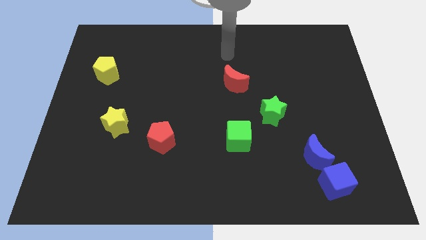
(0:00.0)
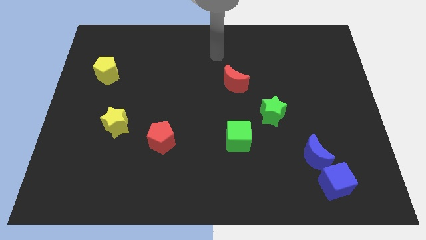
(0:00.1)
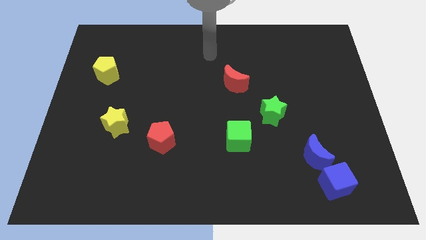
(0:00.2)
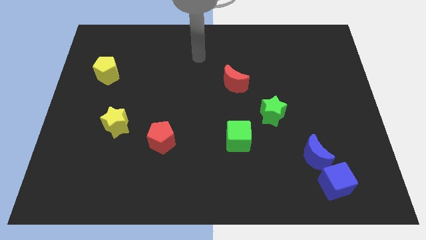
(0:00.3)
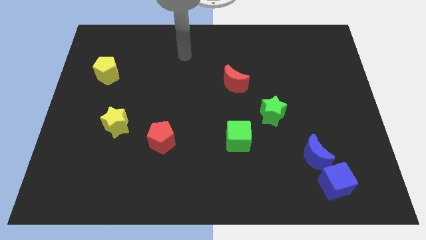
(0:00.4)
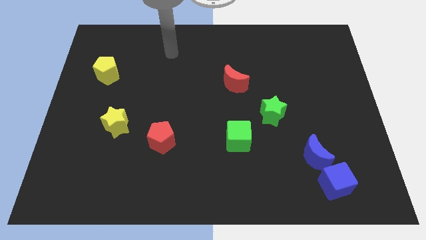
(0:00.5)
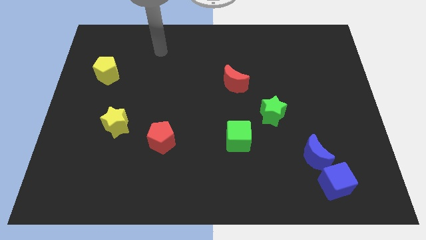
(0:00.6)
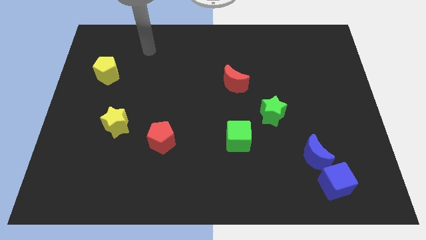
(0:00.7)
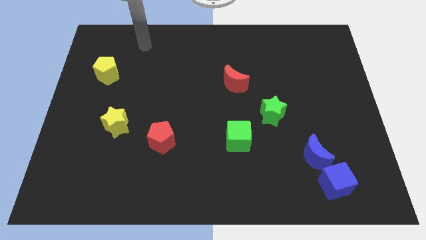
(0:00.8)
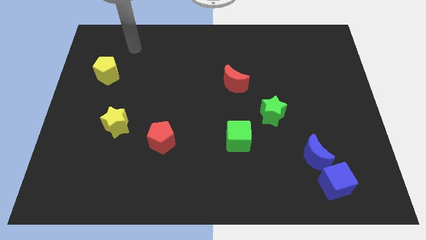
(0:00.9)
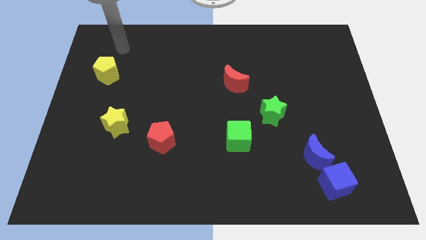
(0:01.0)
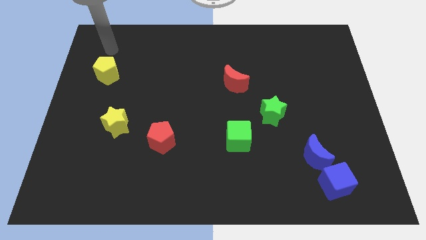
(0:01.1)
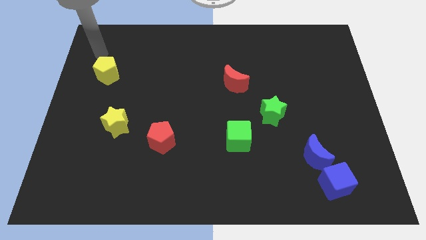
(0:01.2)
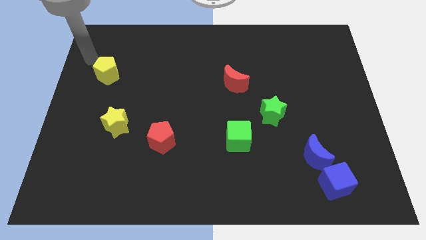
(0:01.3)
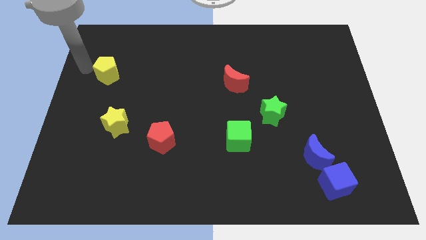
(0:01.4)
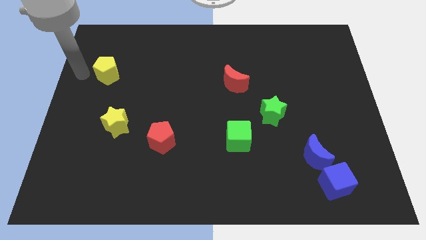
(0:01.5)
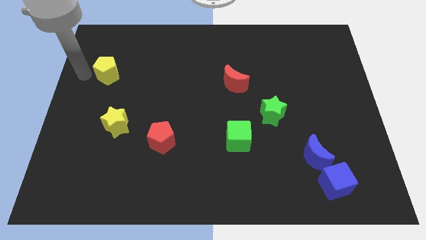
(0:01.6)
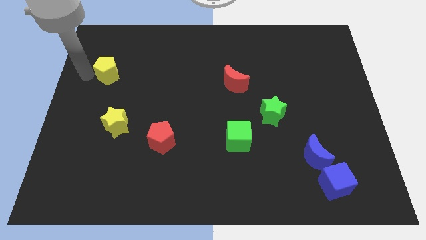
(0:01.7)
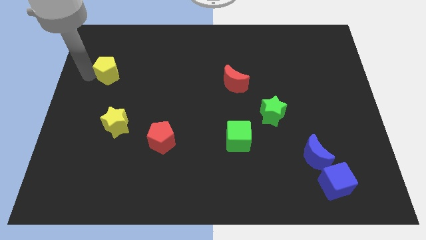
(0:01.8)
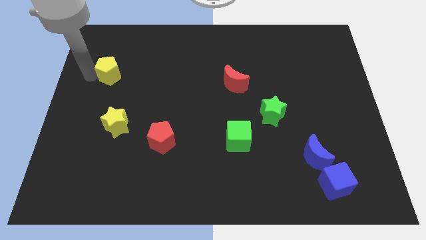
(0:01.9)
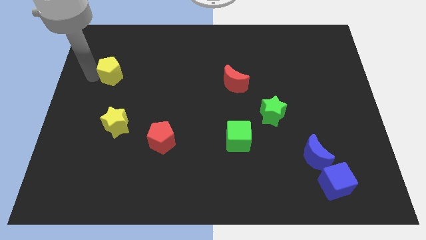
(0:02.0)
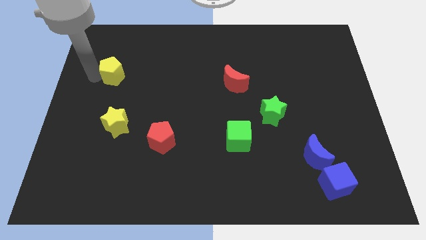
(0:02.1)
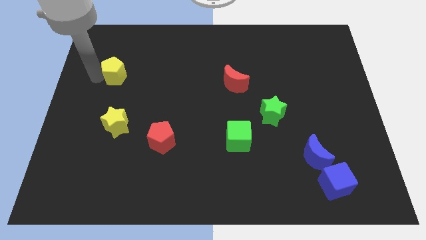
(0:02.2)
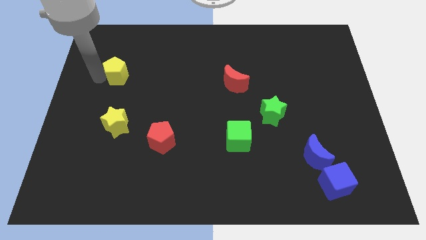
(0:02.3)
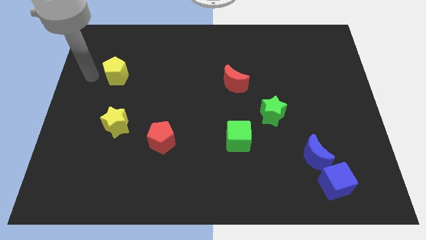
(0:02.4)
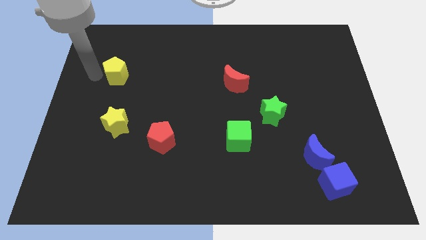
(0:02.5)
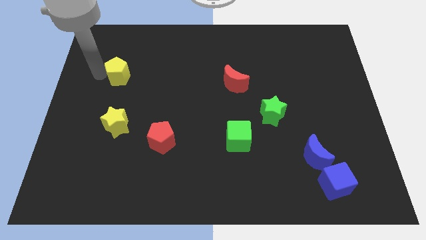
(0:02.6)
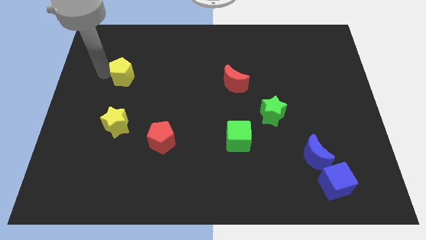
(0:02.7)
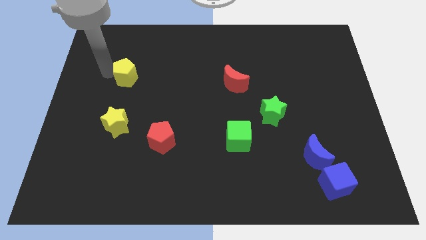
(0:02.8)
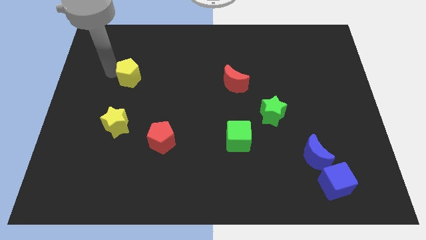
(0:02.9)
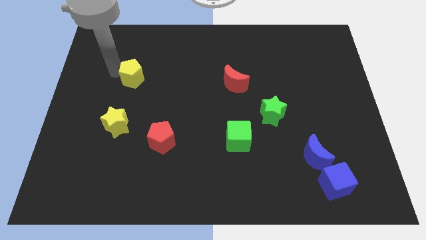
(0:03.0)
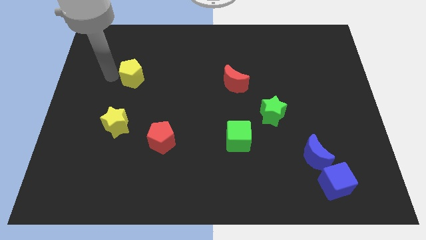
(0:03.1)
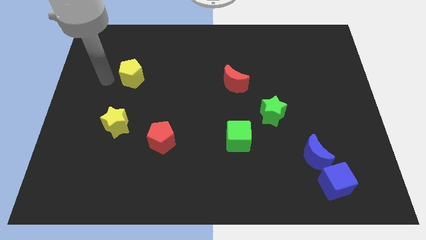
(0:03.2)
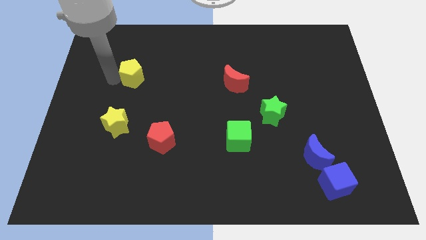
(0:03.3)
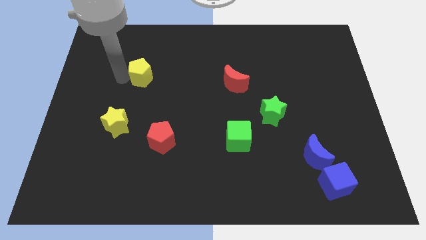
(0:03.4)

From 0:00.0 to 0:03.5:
slide the yellow pentagon a little bit right

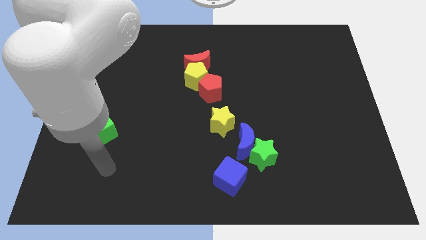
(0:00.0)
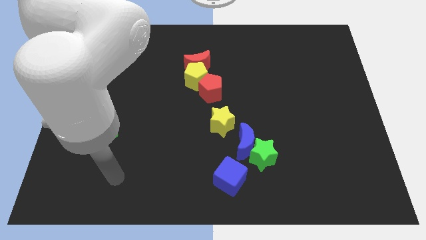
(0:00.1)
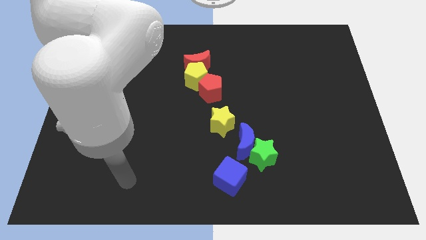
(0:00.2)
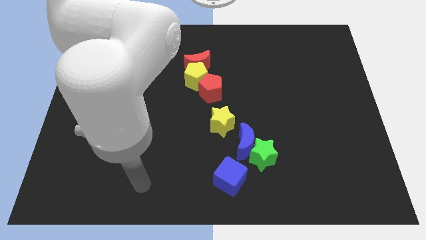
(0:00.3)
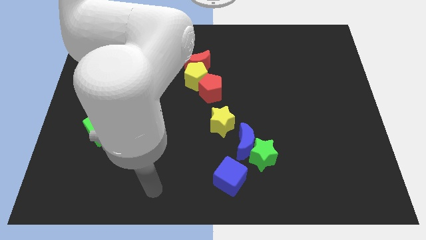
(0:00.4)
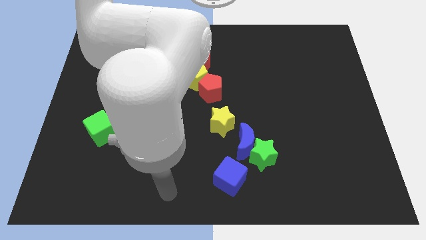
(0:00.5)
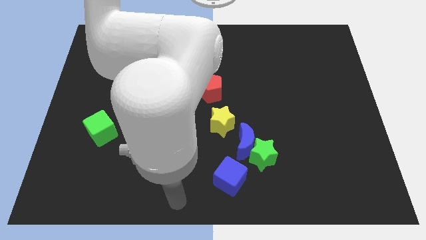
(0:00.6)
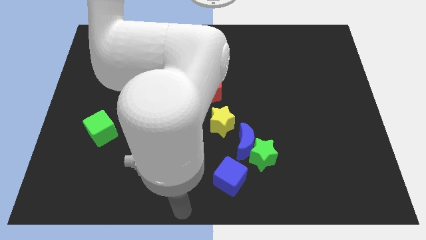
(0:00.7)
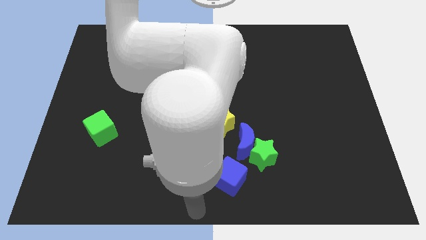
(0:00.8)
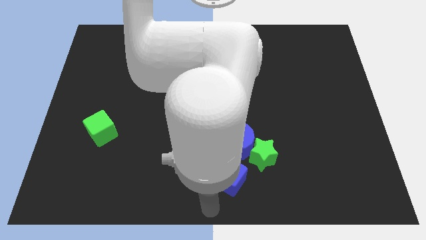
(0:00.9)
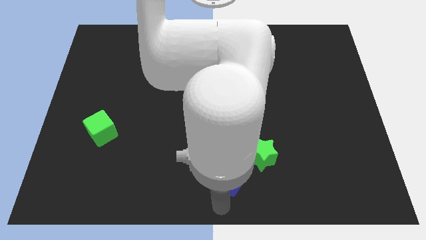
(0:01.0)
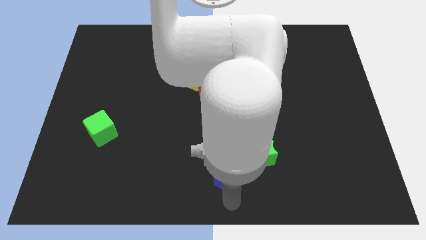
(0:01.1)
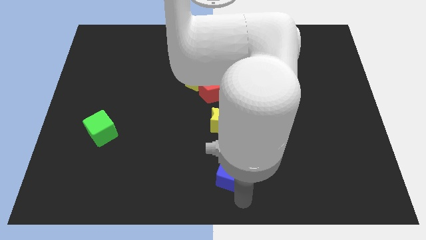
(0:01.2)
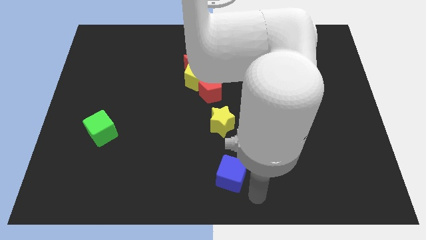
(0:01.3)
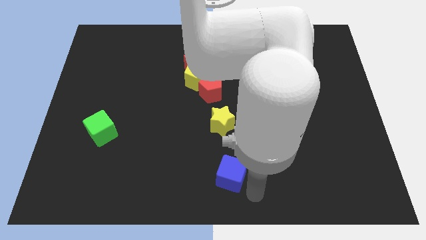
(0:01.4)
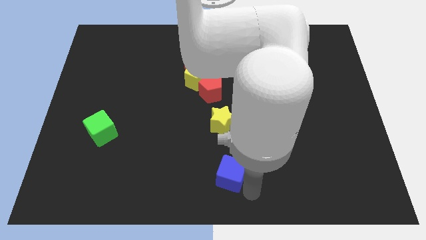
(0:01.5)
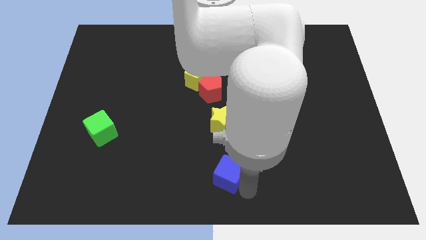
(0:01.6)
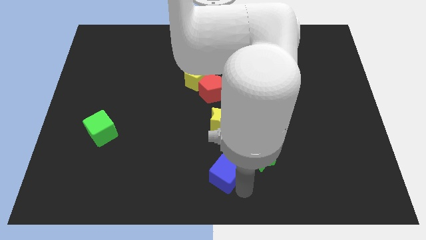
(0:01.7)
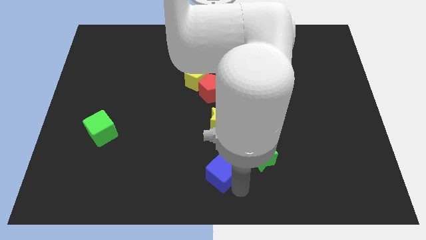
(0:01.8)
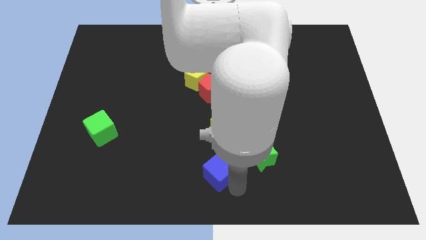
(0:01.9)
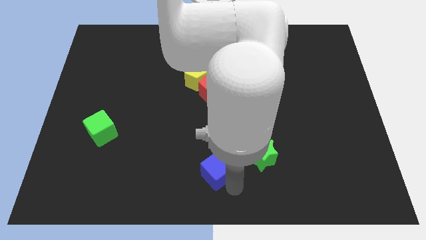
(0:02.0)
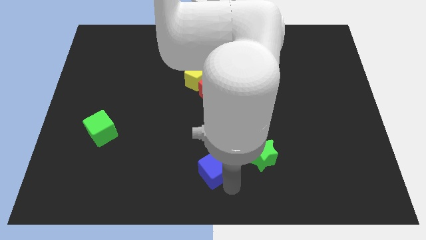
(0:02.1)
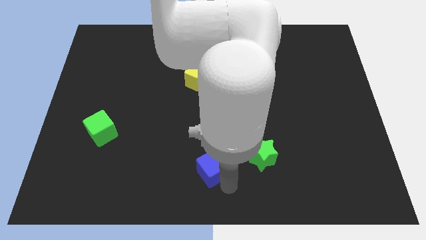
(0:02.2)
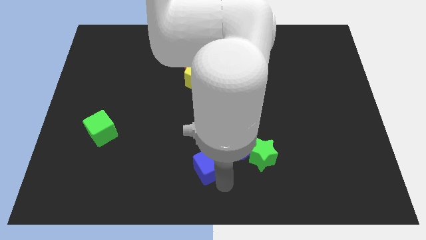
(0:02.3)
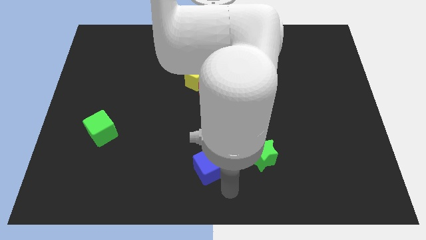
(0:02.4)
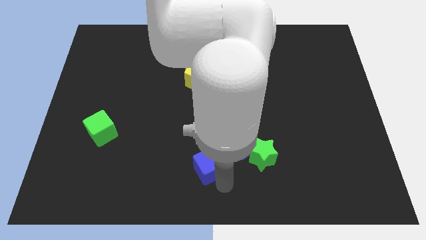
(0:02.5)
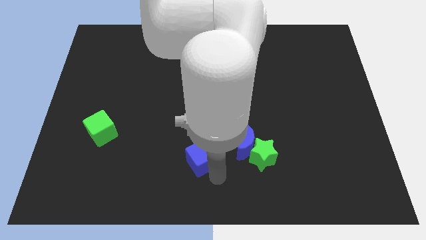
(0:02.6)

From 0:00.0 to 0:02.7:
slightly push the blue cube upwards and to the left diagonally

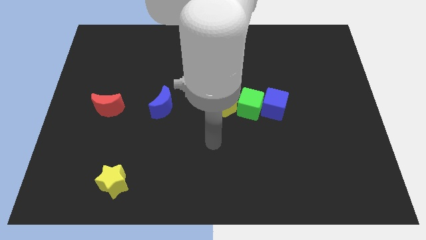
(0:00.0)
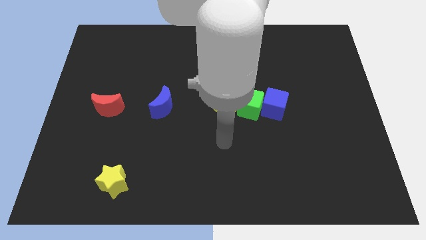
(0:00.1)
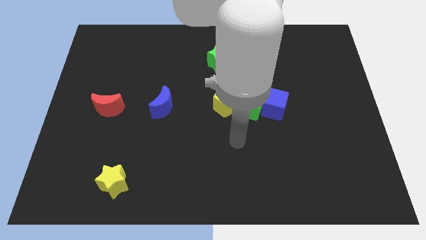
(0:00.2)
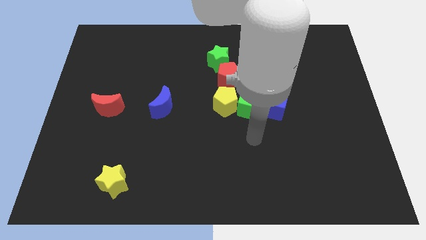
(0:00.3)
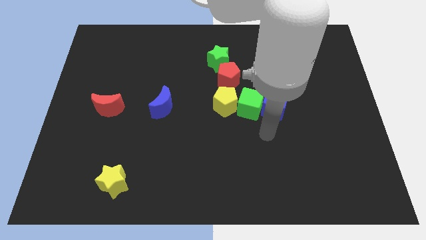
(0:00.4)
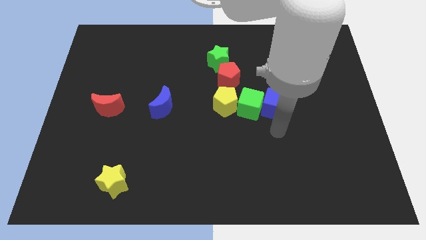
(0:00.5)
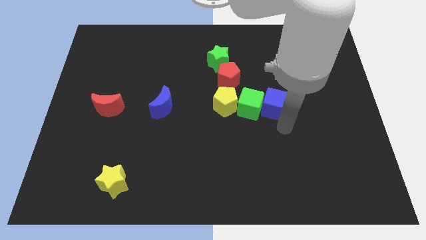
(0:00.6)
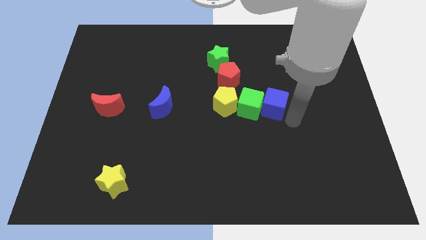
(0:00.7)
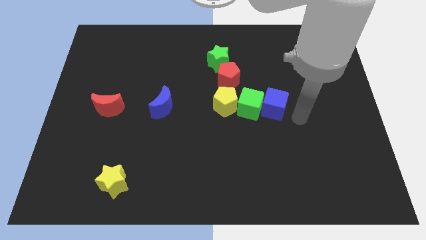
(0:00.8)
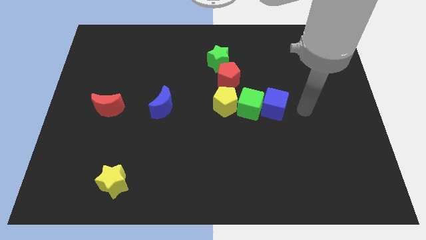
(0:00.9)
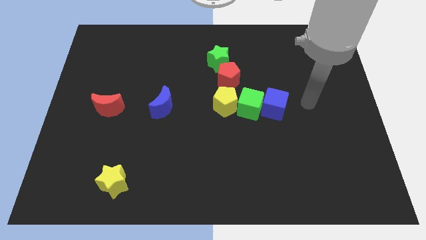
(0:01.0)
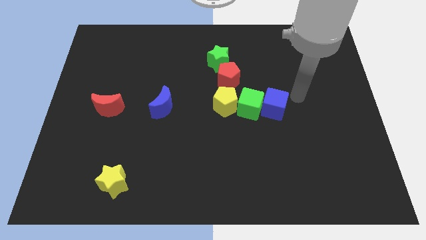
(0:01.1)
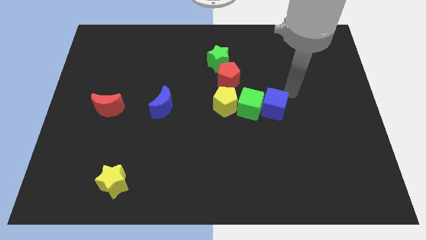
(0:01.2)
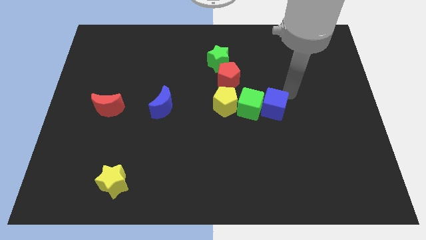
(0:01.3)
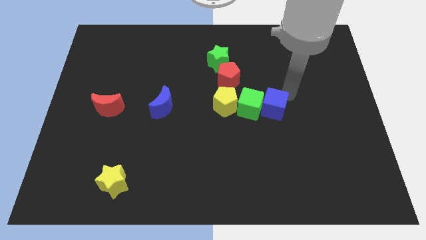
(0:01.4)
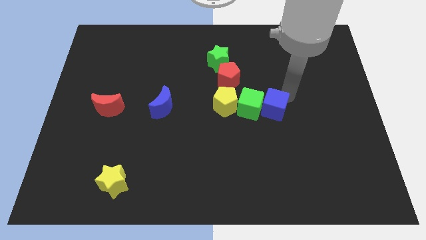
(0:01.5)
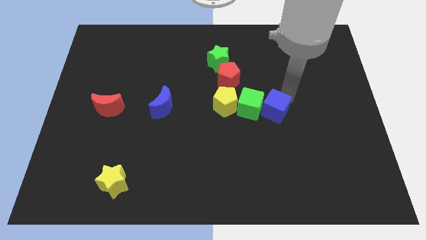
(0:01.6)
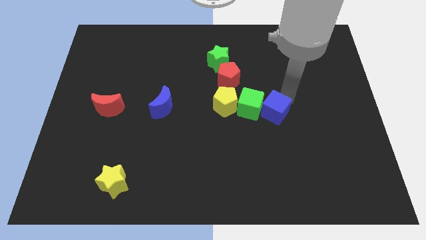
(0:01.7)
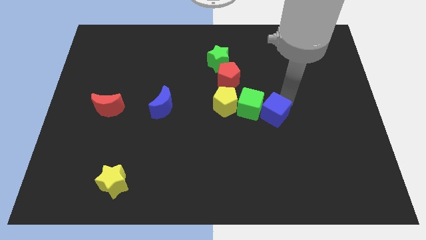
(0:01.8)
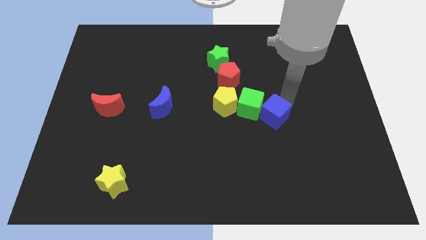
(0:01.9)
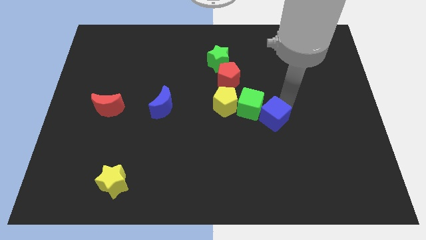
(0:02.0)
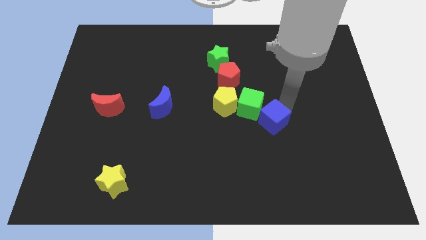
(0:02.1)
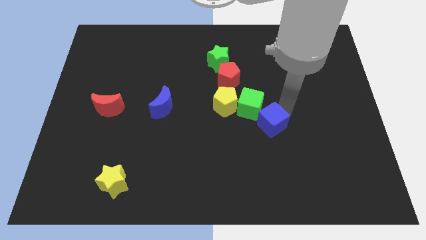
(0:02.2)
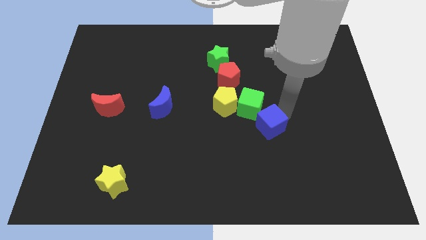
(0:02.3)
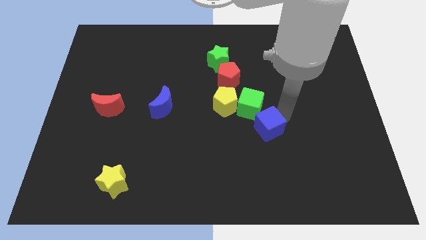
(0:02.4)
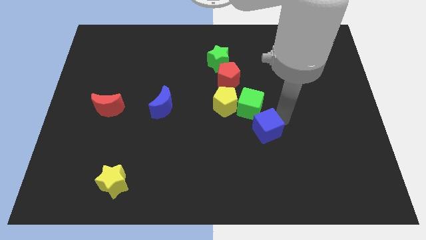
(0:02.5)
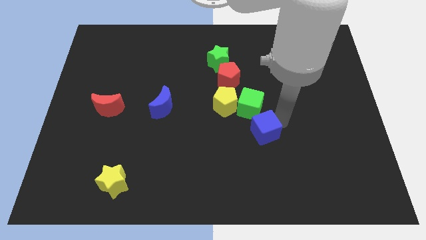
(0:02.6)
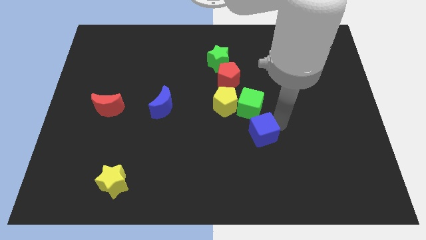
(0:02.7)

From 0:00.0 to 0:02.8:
move the blue cube somewhat diagonally downwards and to the left
